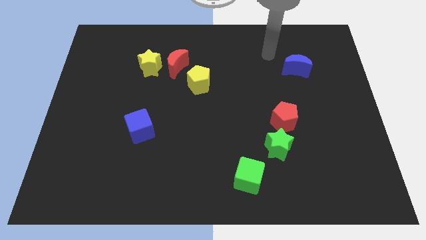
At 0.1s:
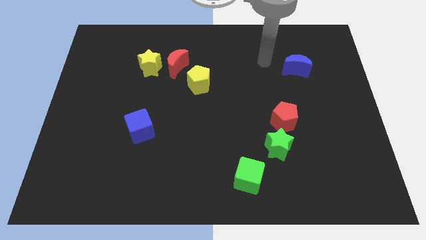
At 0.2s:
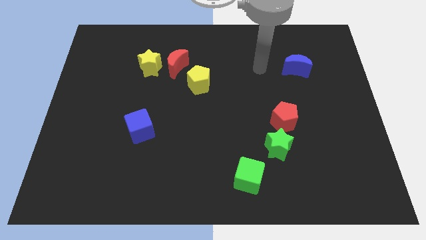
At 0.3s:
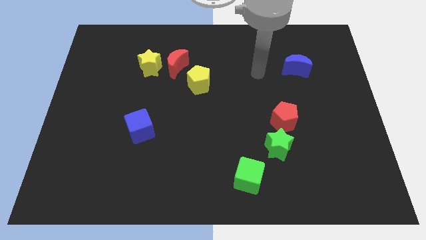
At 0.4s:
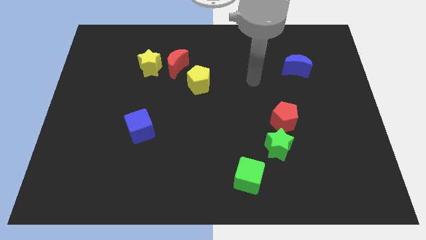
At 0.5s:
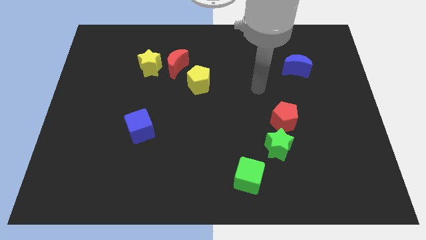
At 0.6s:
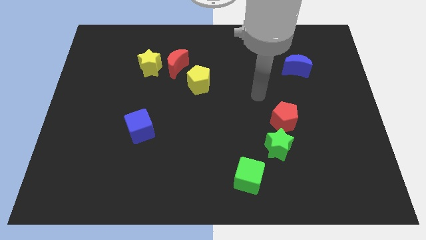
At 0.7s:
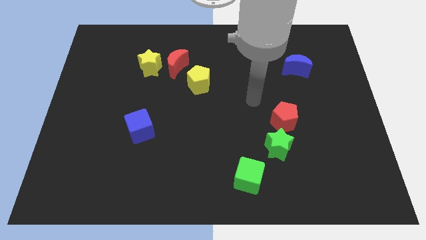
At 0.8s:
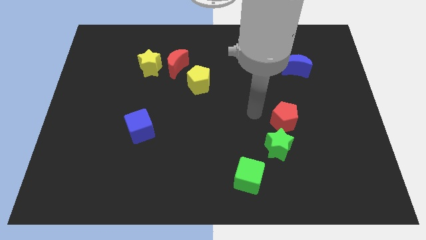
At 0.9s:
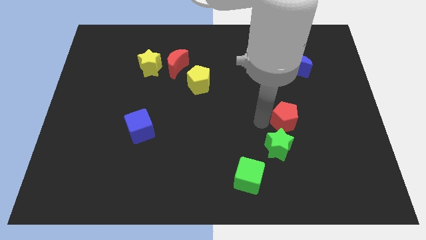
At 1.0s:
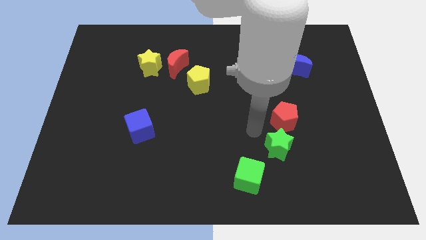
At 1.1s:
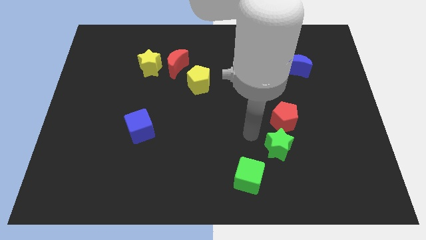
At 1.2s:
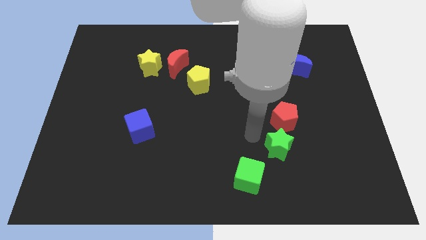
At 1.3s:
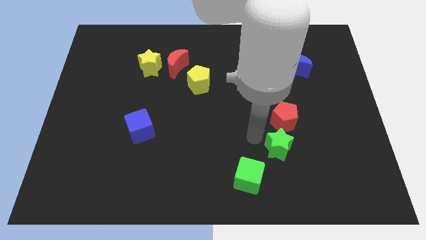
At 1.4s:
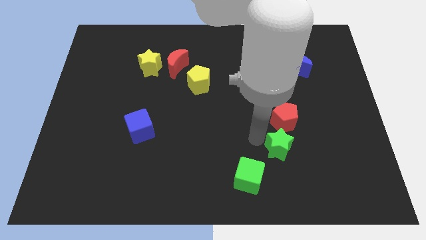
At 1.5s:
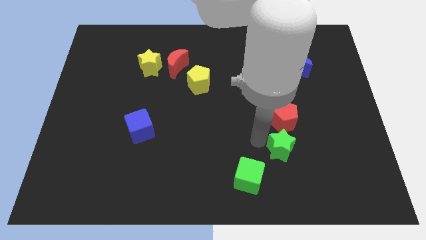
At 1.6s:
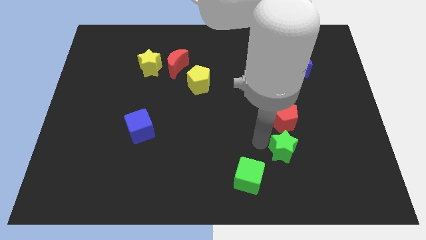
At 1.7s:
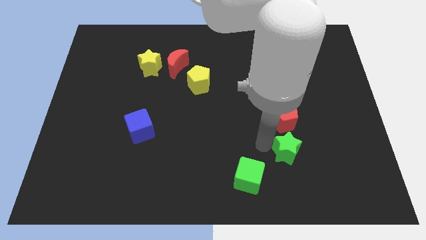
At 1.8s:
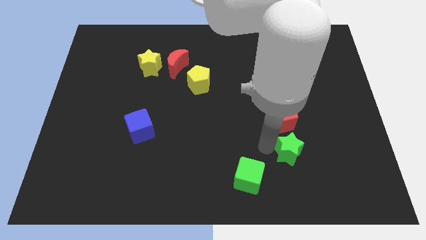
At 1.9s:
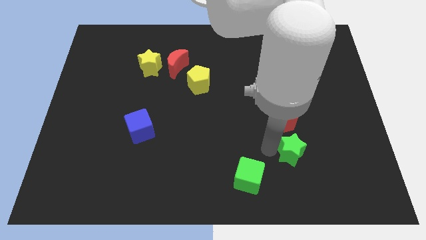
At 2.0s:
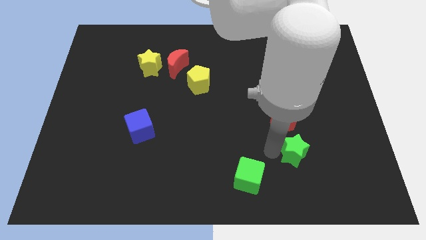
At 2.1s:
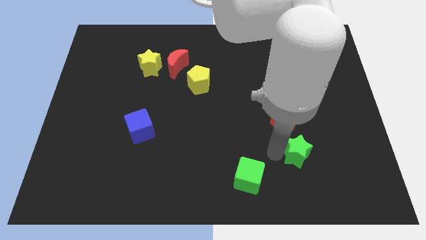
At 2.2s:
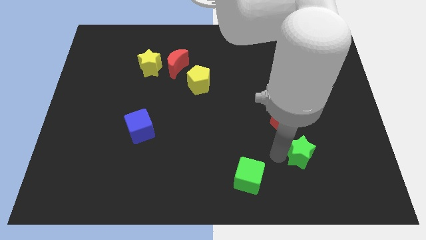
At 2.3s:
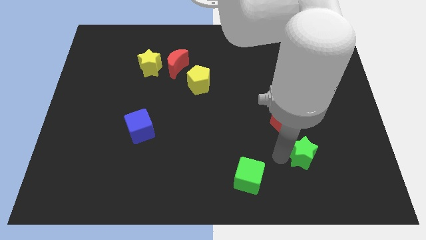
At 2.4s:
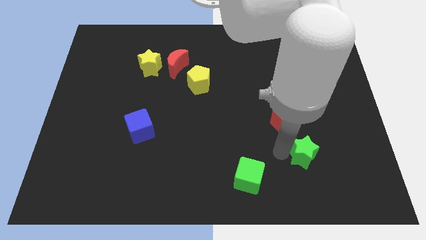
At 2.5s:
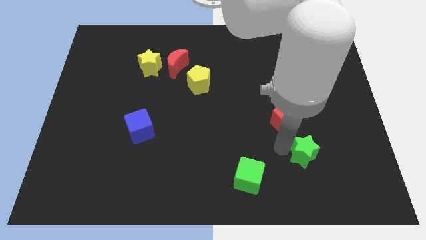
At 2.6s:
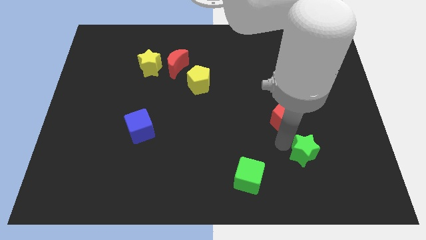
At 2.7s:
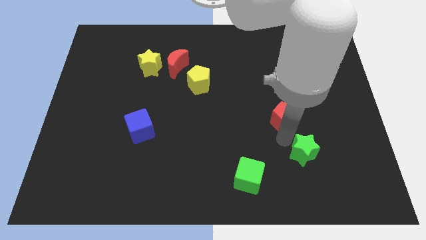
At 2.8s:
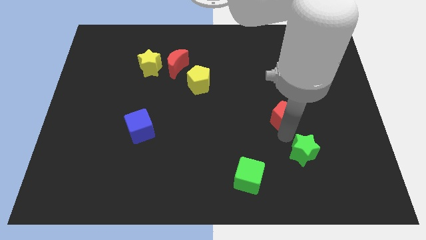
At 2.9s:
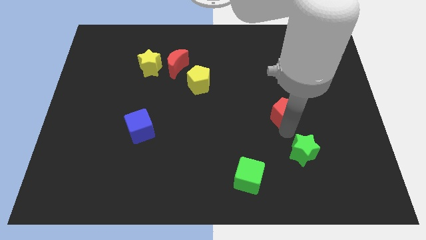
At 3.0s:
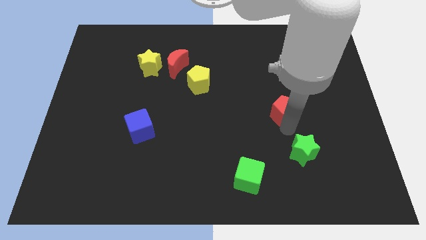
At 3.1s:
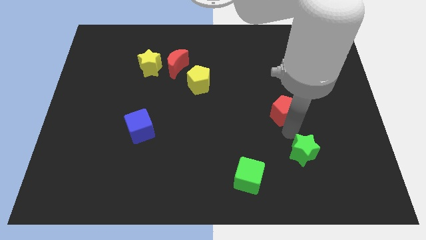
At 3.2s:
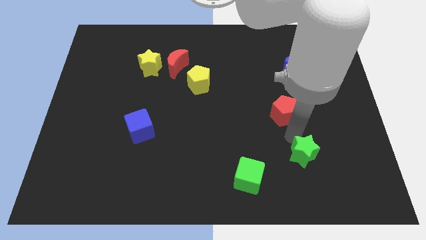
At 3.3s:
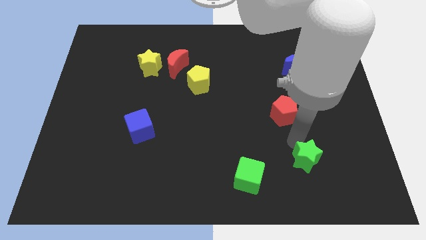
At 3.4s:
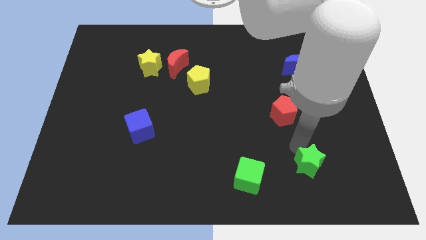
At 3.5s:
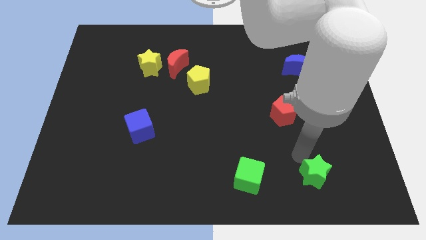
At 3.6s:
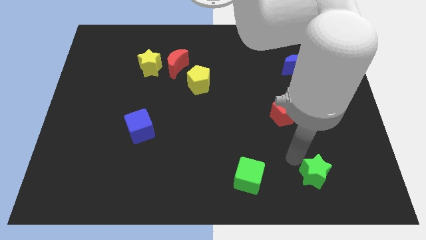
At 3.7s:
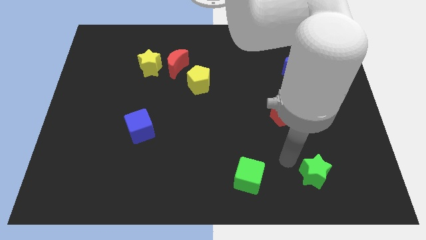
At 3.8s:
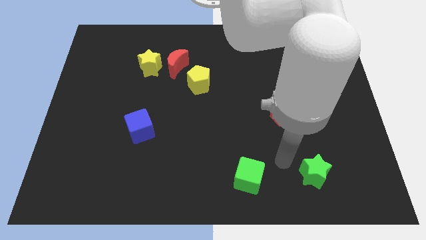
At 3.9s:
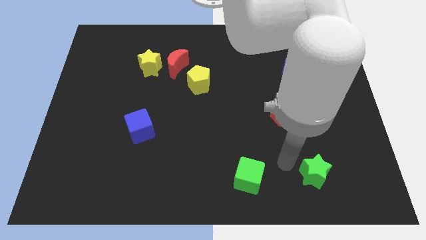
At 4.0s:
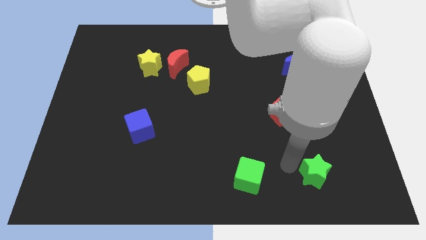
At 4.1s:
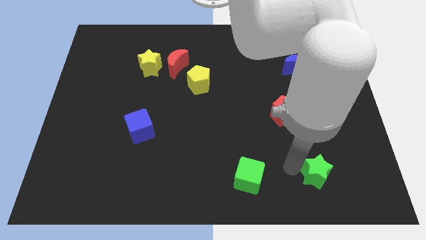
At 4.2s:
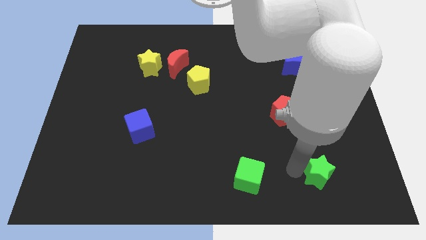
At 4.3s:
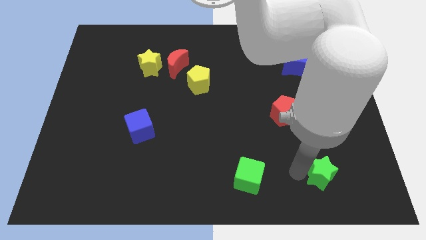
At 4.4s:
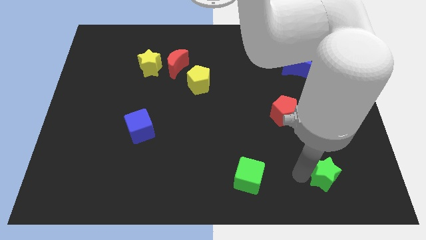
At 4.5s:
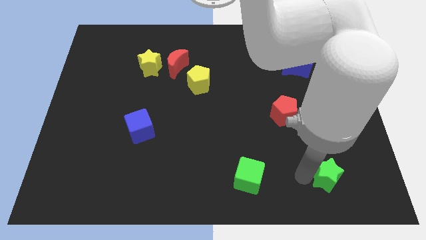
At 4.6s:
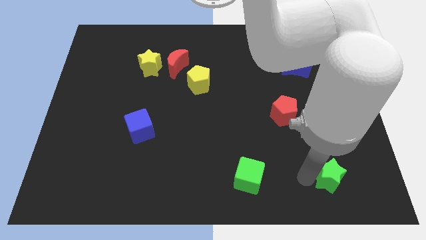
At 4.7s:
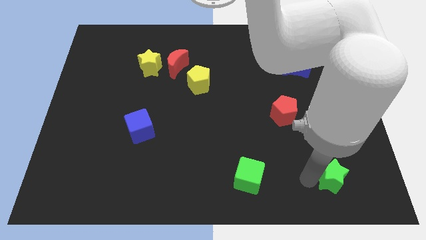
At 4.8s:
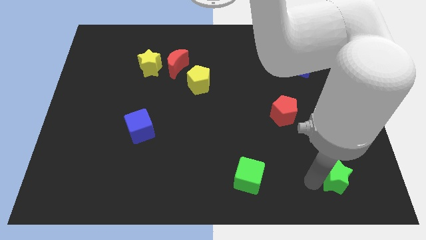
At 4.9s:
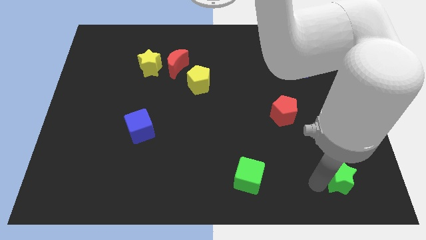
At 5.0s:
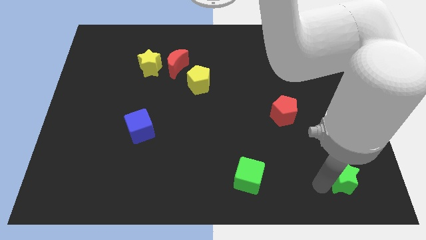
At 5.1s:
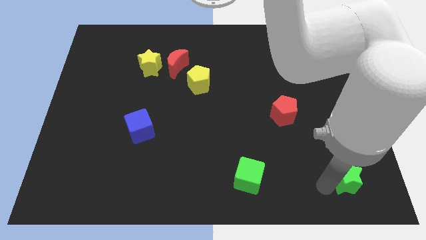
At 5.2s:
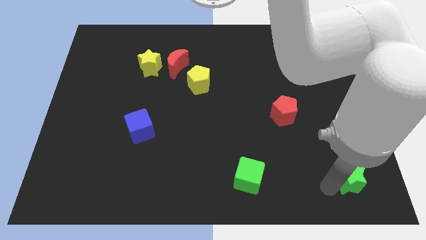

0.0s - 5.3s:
push the green star to the bottom right corner

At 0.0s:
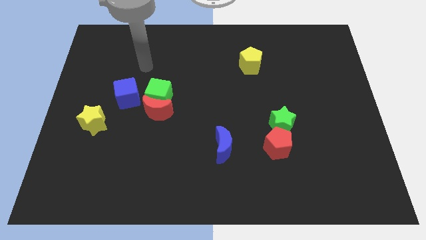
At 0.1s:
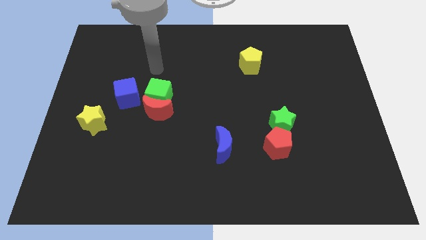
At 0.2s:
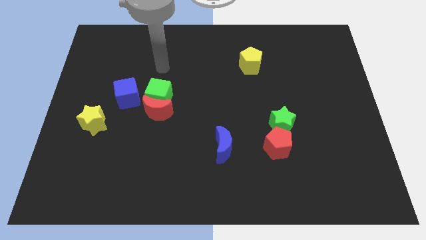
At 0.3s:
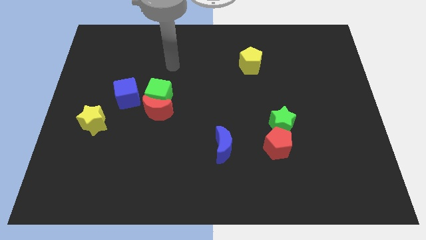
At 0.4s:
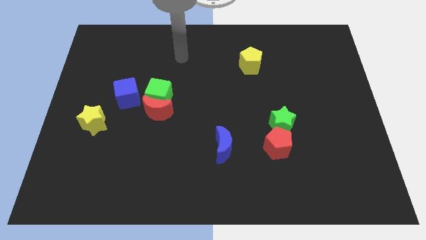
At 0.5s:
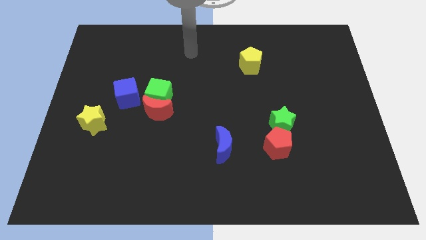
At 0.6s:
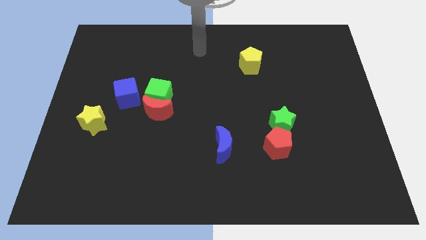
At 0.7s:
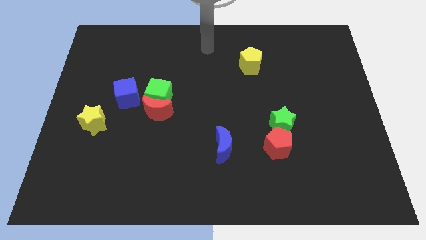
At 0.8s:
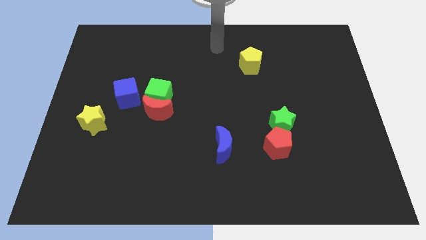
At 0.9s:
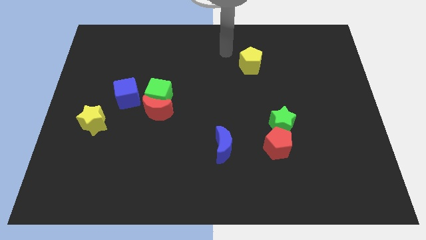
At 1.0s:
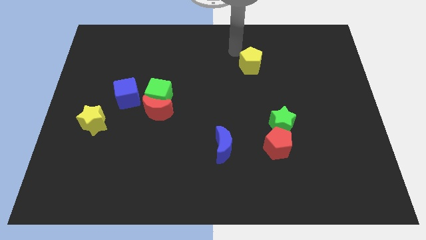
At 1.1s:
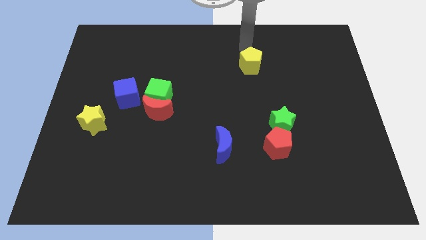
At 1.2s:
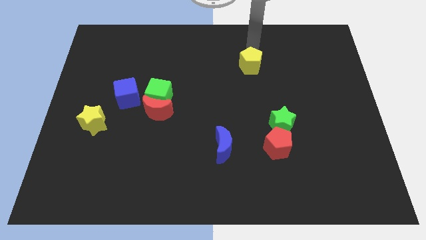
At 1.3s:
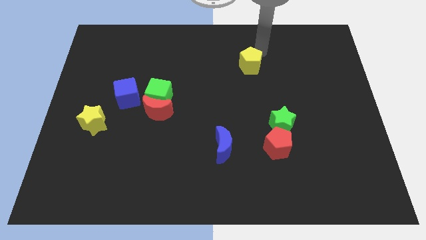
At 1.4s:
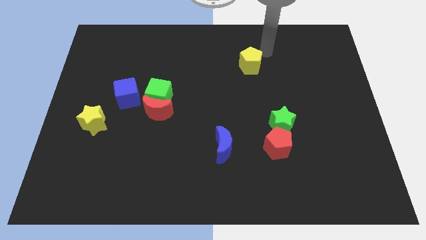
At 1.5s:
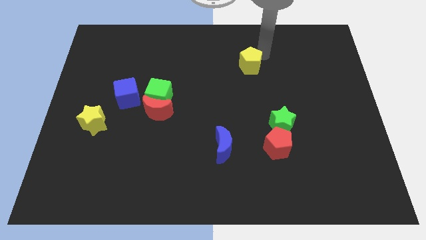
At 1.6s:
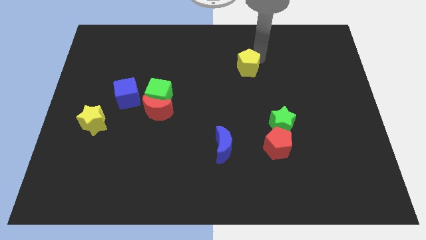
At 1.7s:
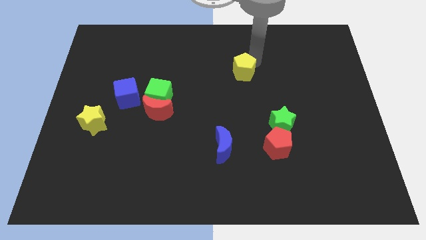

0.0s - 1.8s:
move the yellow pentagon to the middle of the board
